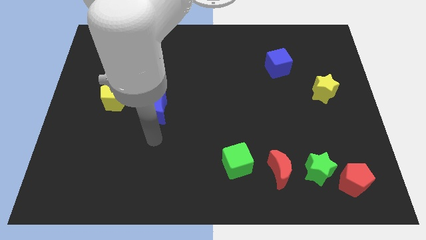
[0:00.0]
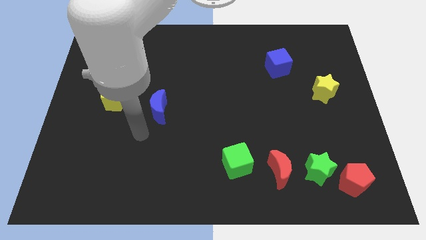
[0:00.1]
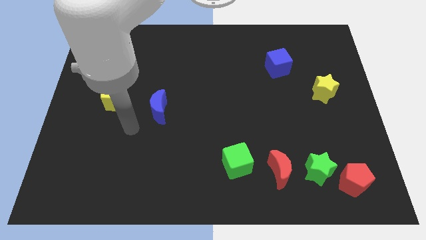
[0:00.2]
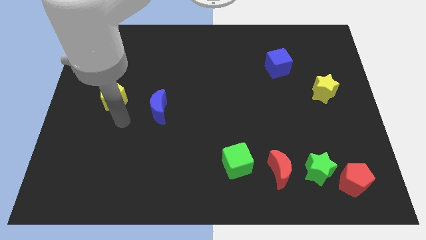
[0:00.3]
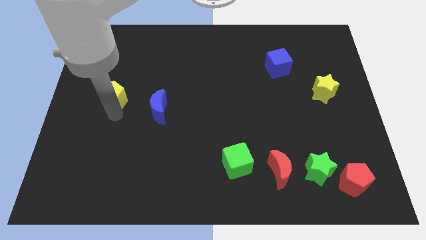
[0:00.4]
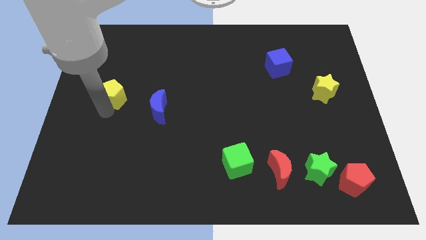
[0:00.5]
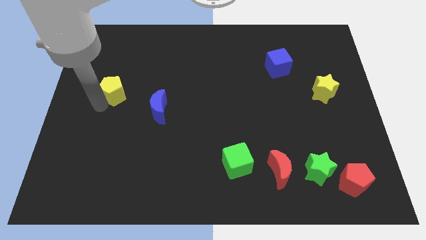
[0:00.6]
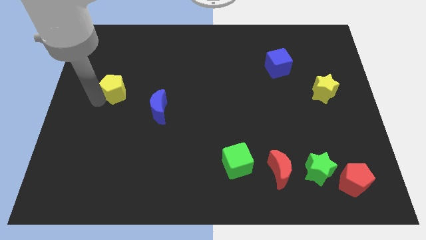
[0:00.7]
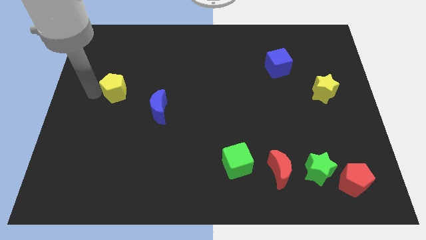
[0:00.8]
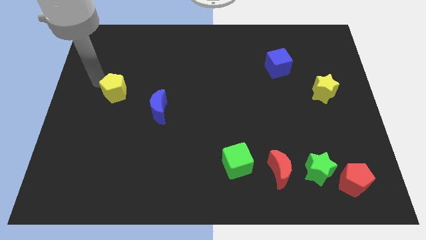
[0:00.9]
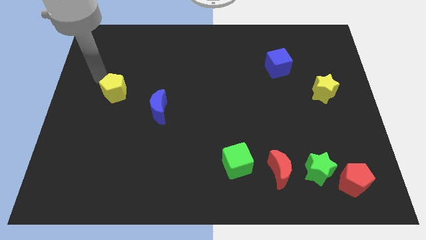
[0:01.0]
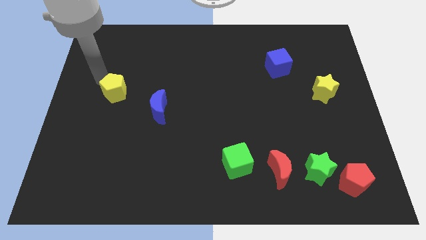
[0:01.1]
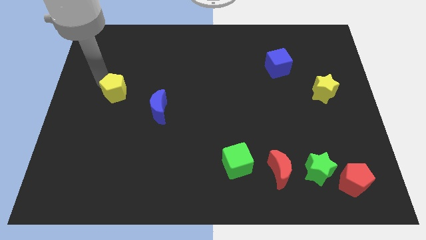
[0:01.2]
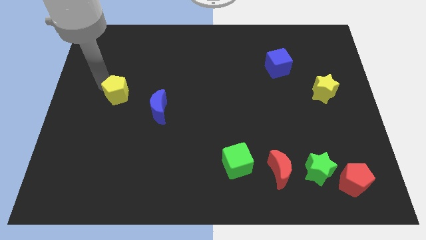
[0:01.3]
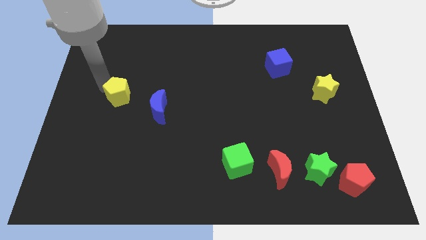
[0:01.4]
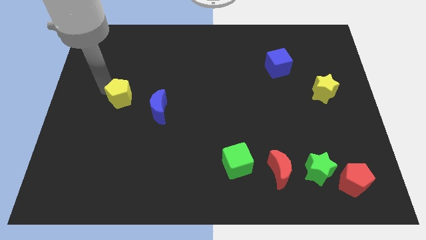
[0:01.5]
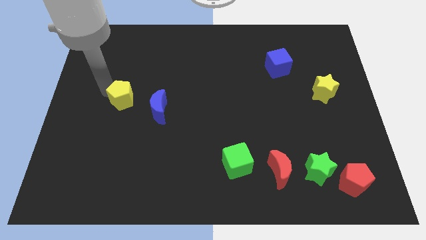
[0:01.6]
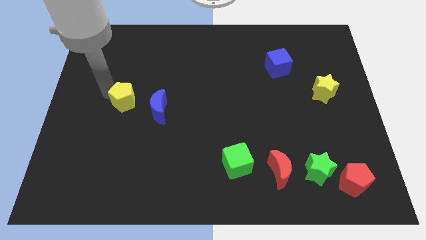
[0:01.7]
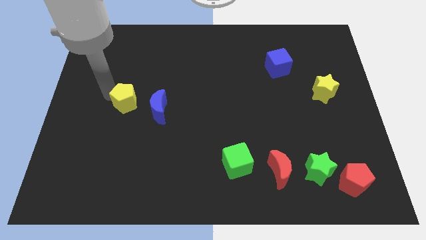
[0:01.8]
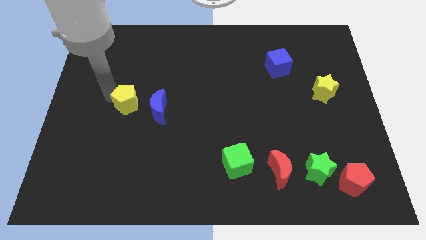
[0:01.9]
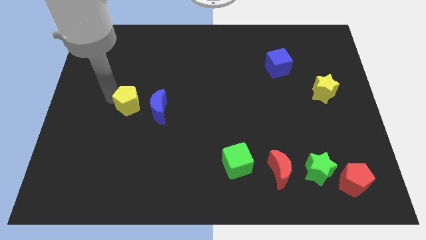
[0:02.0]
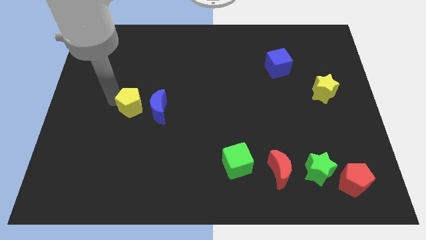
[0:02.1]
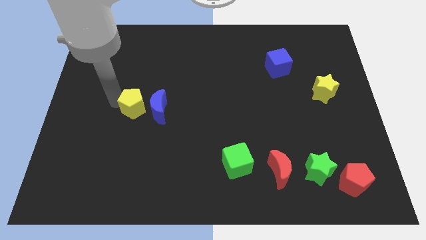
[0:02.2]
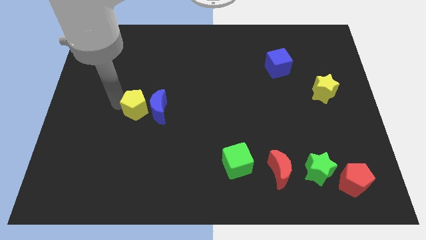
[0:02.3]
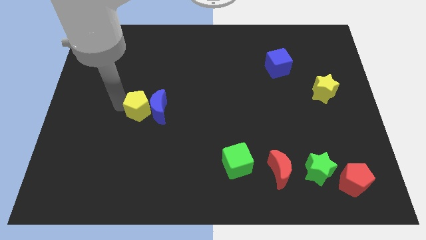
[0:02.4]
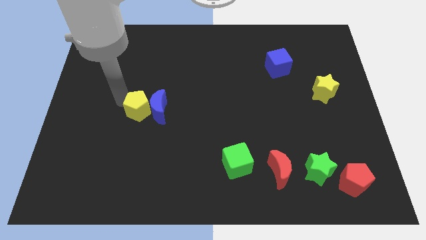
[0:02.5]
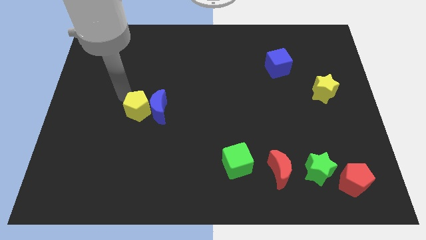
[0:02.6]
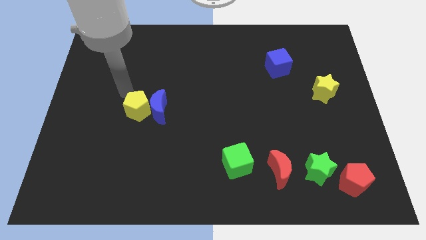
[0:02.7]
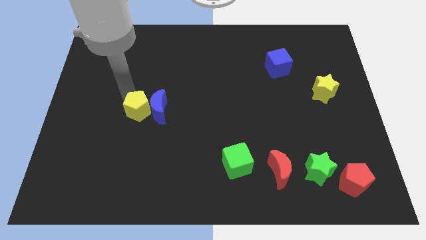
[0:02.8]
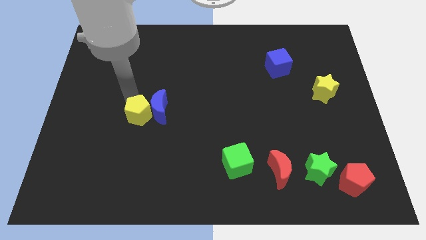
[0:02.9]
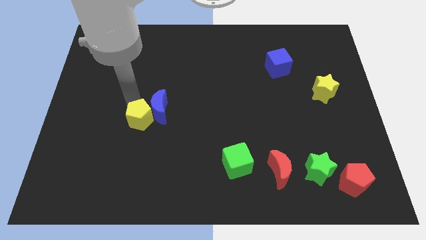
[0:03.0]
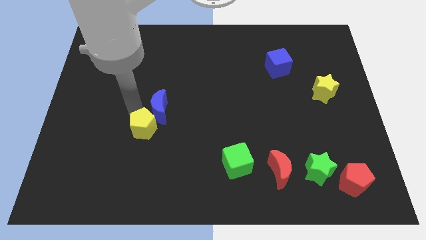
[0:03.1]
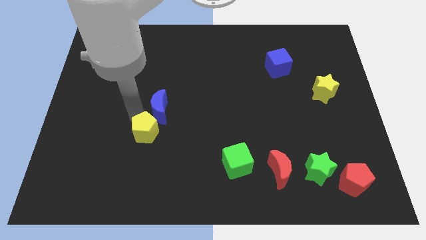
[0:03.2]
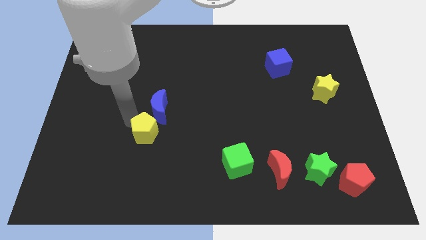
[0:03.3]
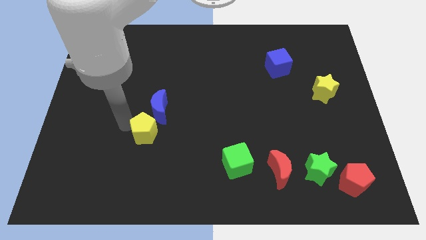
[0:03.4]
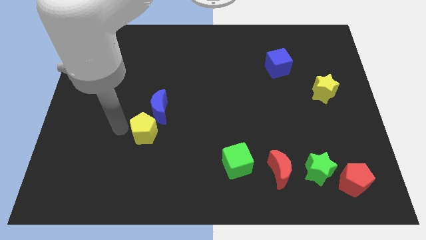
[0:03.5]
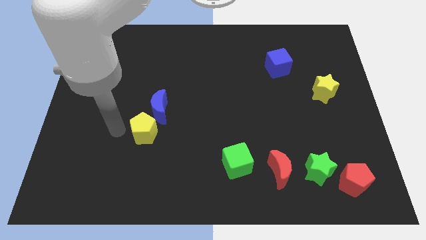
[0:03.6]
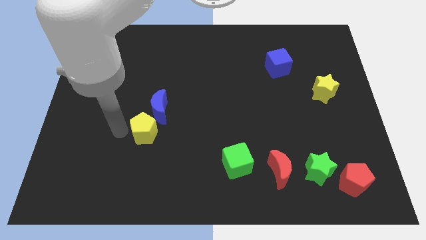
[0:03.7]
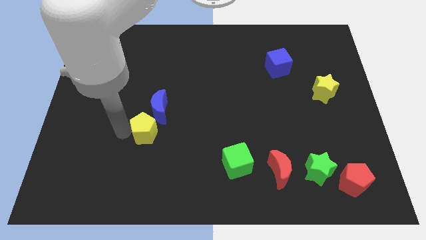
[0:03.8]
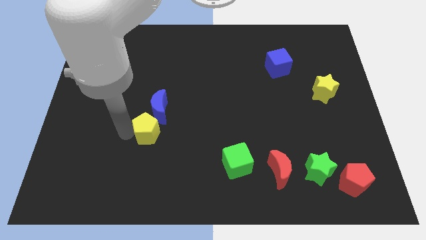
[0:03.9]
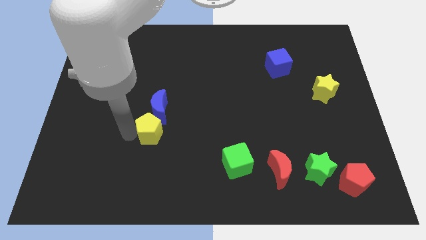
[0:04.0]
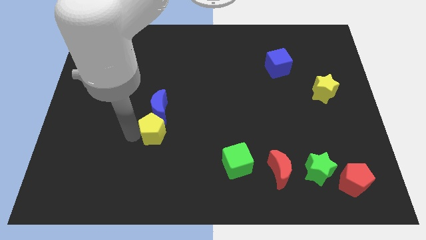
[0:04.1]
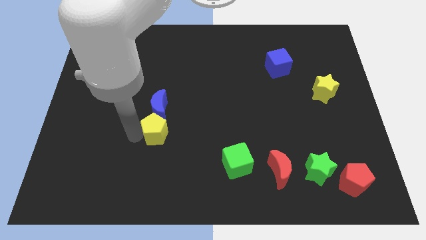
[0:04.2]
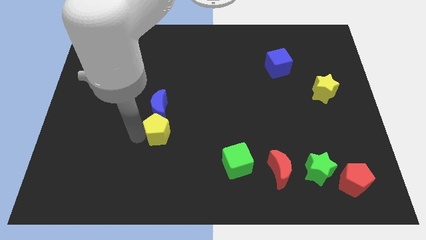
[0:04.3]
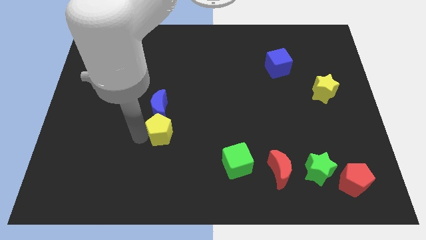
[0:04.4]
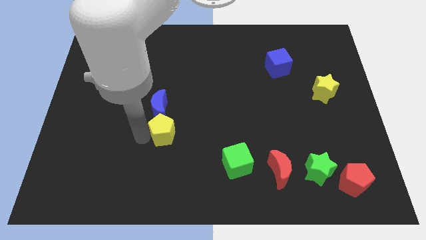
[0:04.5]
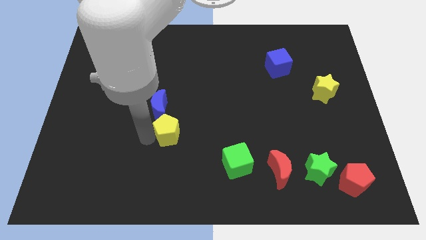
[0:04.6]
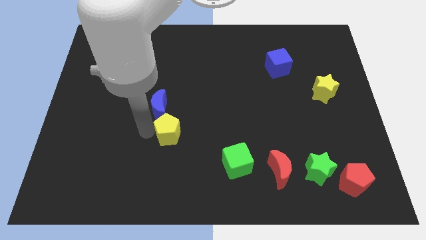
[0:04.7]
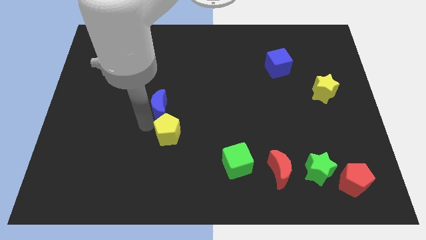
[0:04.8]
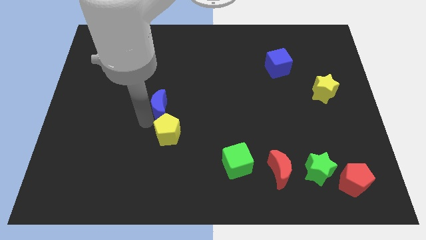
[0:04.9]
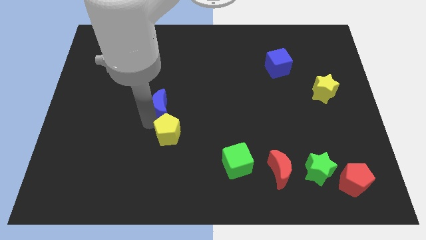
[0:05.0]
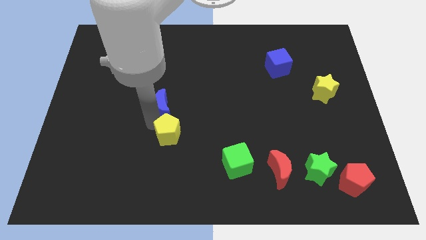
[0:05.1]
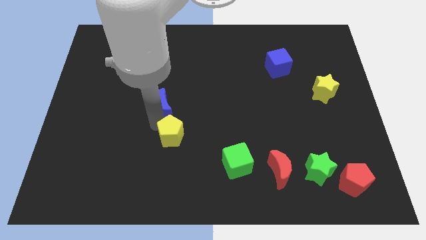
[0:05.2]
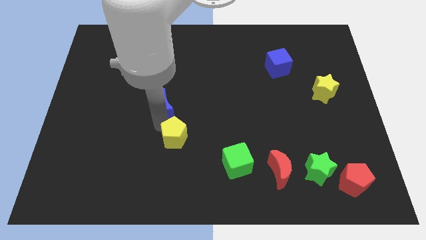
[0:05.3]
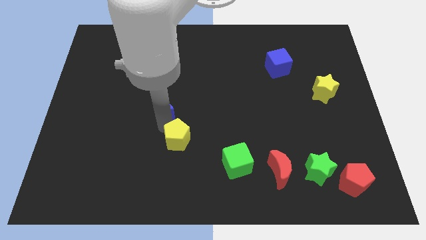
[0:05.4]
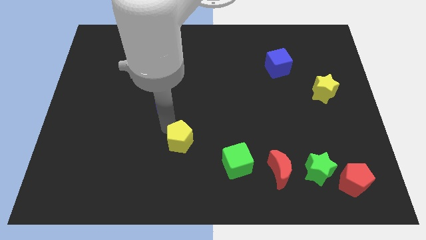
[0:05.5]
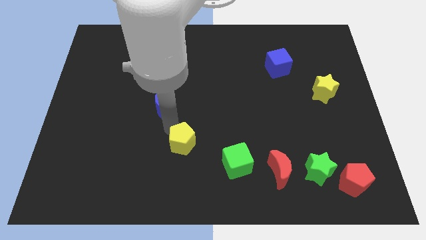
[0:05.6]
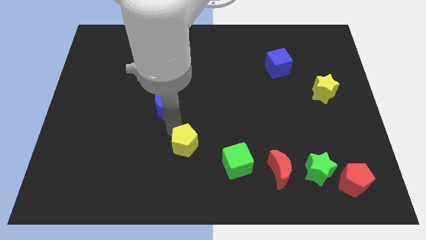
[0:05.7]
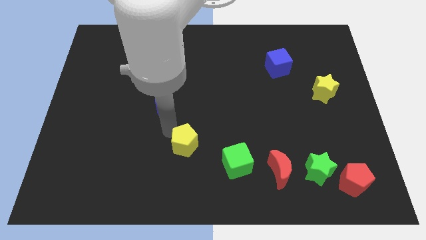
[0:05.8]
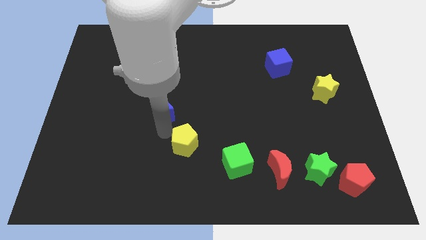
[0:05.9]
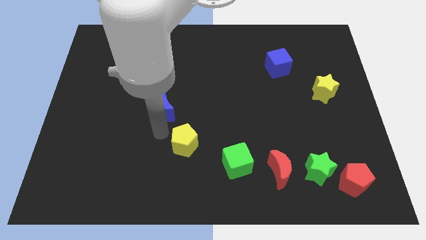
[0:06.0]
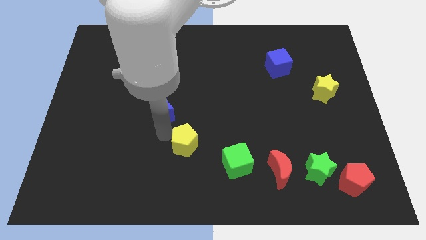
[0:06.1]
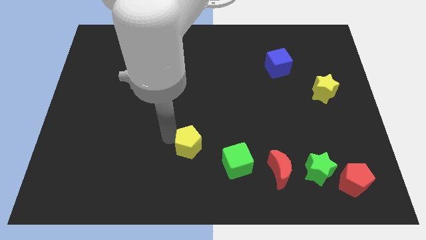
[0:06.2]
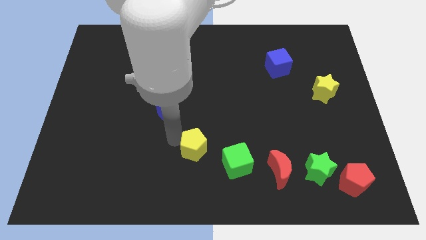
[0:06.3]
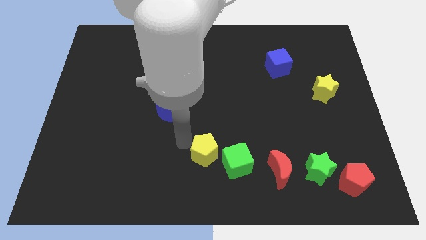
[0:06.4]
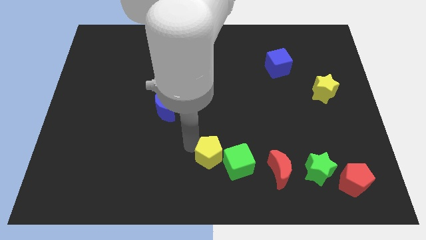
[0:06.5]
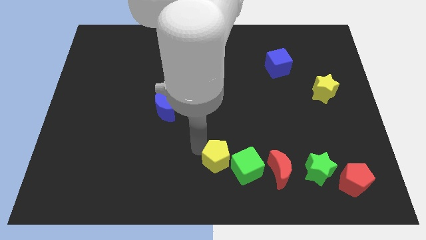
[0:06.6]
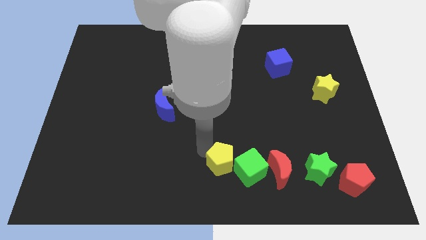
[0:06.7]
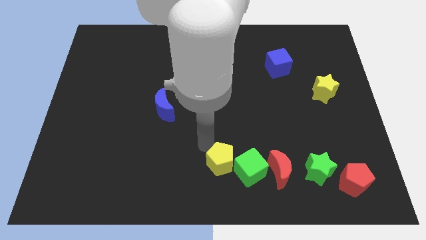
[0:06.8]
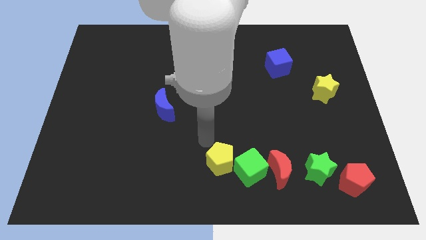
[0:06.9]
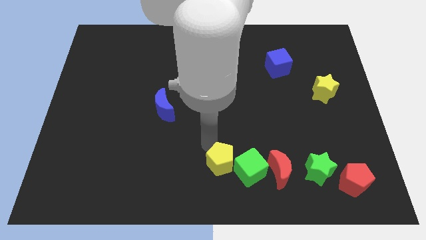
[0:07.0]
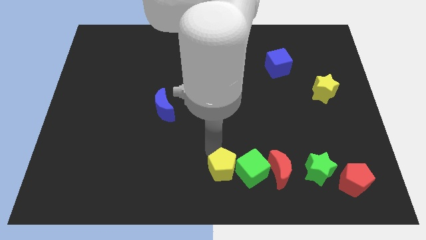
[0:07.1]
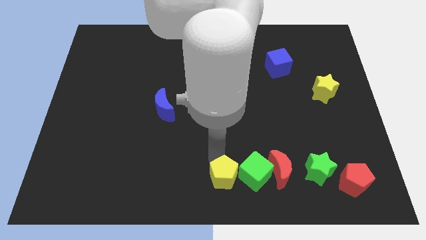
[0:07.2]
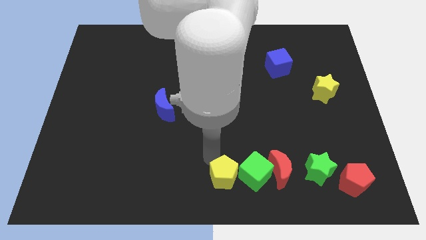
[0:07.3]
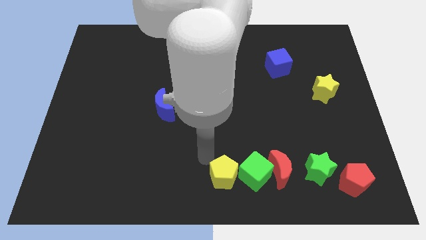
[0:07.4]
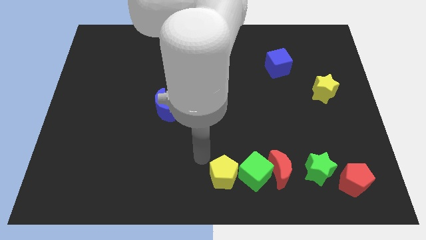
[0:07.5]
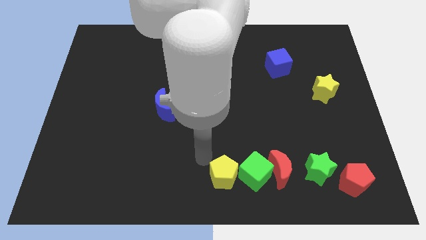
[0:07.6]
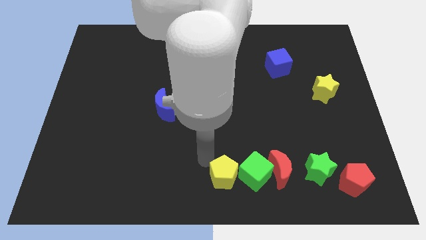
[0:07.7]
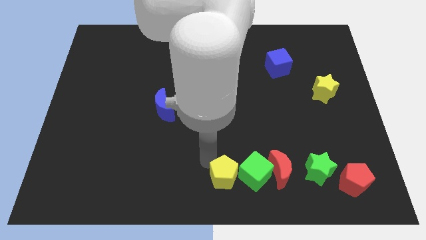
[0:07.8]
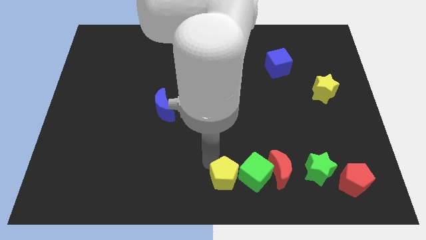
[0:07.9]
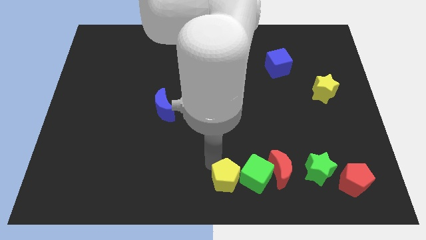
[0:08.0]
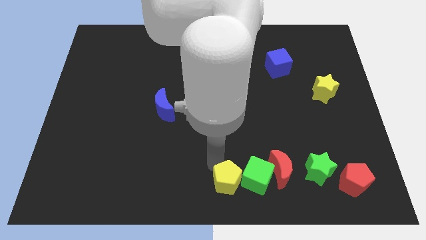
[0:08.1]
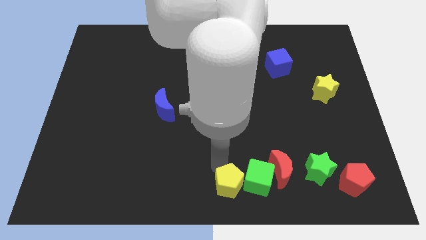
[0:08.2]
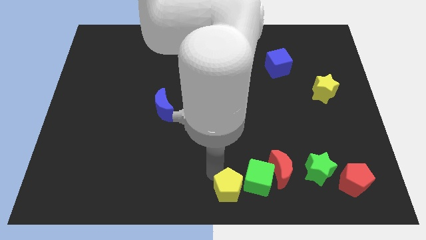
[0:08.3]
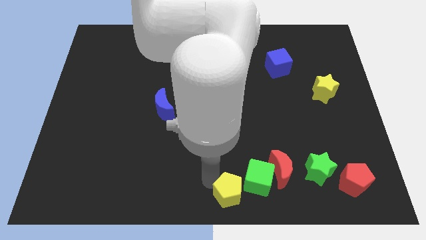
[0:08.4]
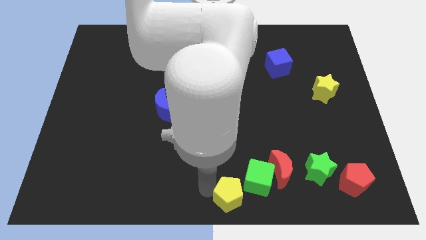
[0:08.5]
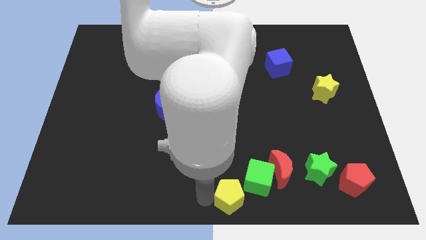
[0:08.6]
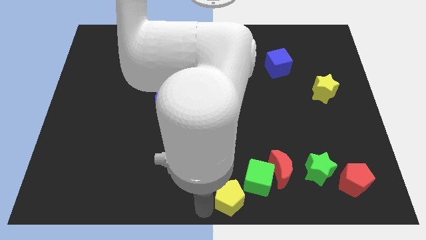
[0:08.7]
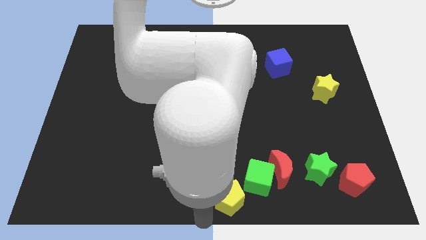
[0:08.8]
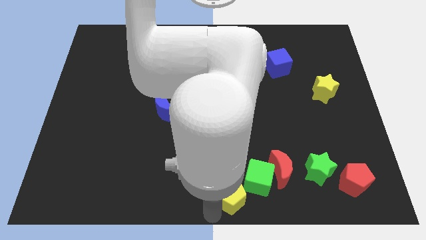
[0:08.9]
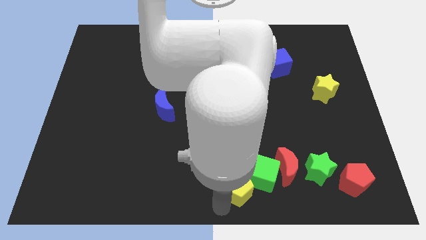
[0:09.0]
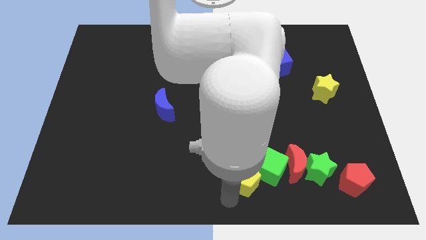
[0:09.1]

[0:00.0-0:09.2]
move the yellow pentagon to the left side of the green star
